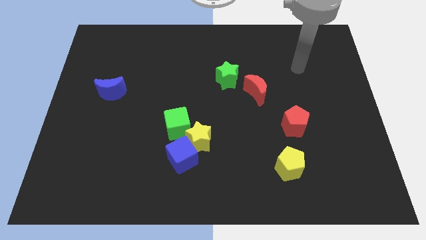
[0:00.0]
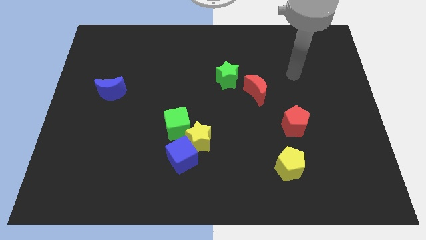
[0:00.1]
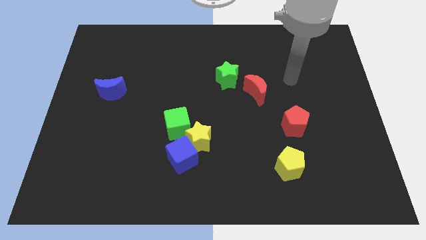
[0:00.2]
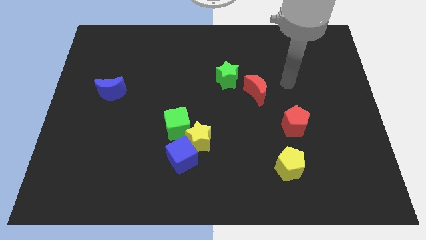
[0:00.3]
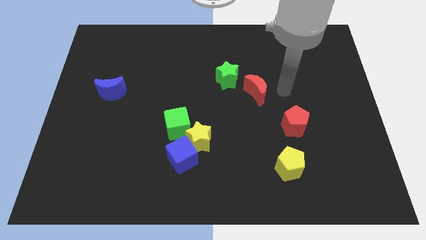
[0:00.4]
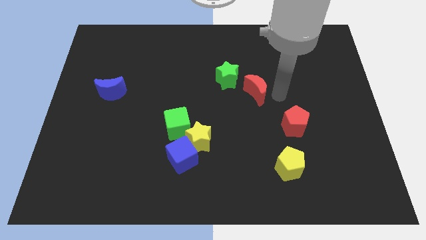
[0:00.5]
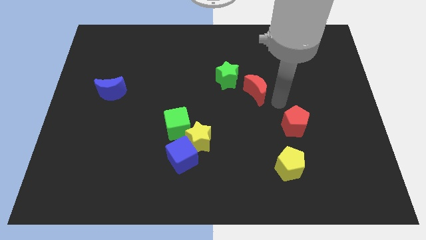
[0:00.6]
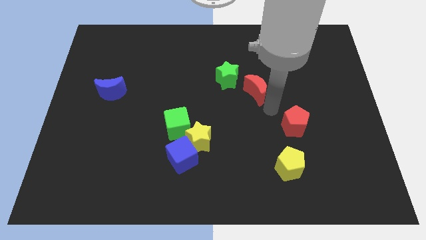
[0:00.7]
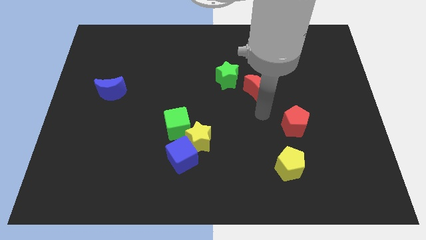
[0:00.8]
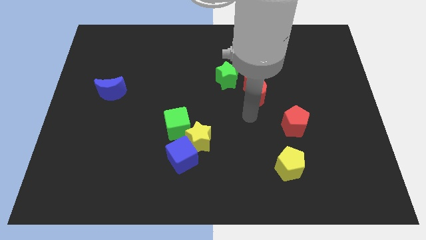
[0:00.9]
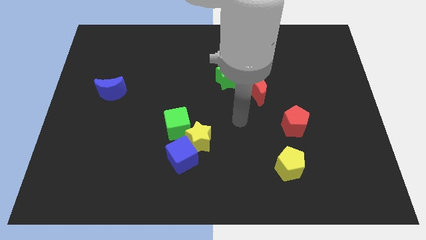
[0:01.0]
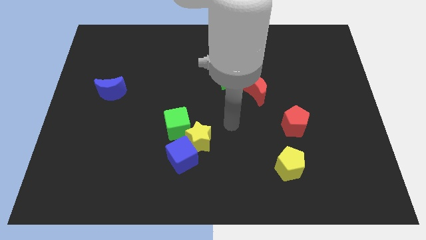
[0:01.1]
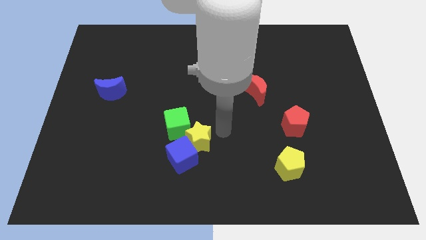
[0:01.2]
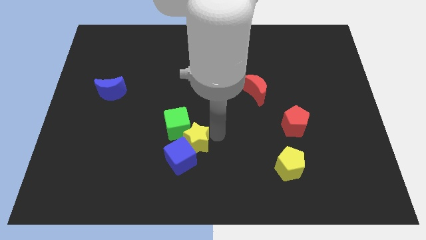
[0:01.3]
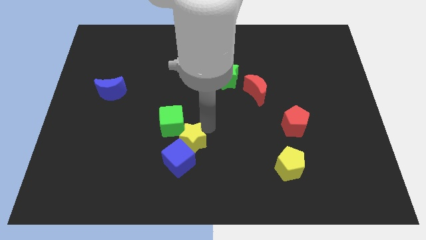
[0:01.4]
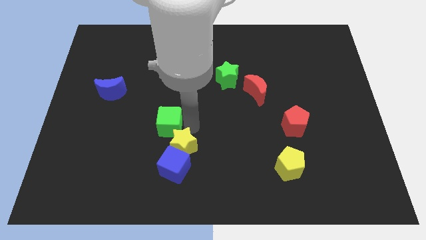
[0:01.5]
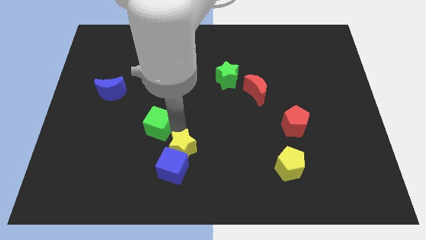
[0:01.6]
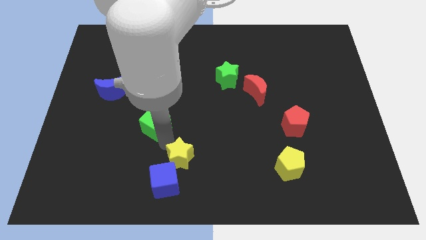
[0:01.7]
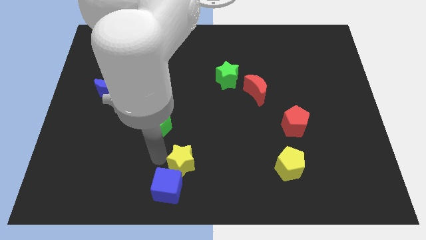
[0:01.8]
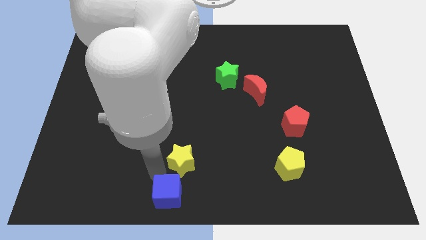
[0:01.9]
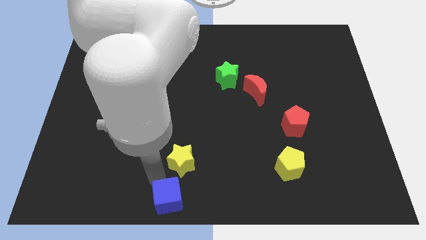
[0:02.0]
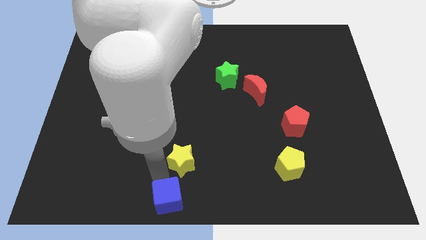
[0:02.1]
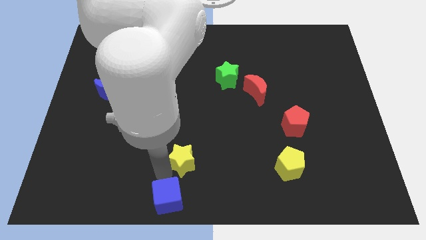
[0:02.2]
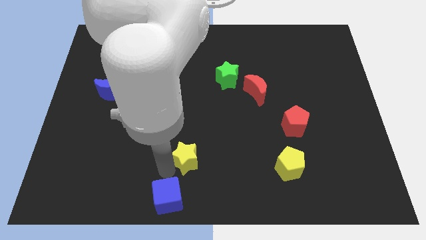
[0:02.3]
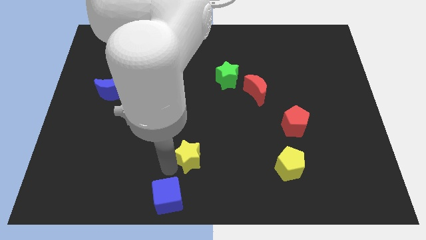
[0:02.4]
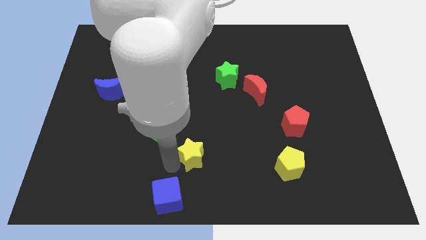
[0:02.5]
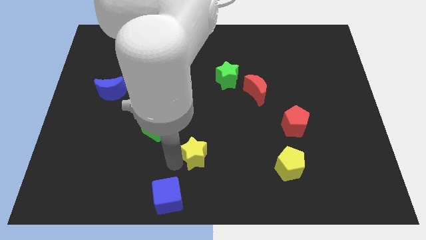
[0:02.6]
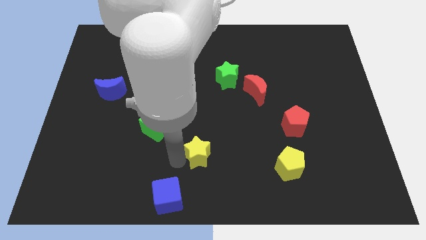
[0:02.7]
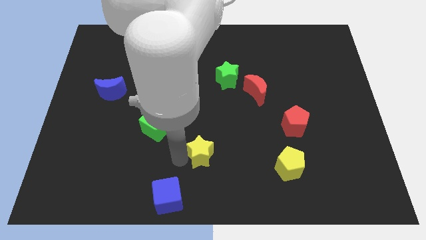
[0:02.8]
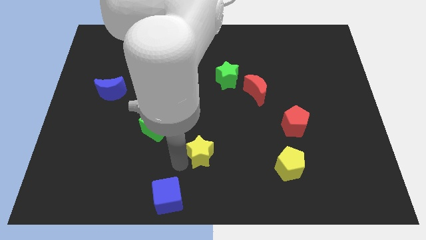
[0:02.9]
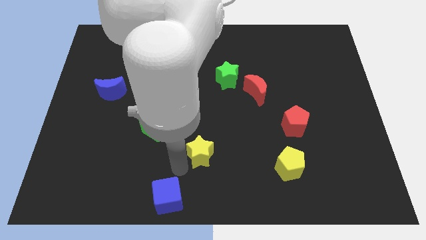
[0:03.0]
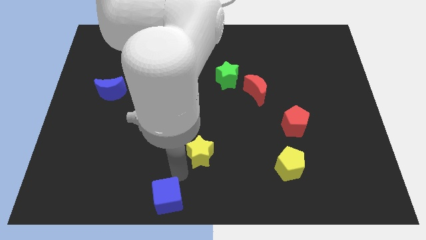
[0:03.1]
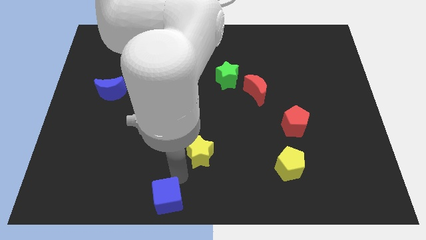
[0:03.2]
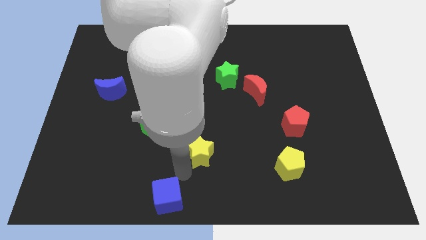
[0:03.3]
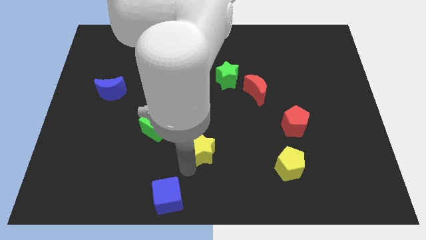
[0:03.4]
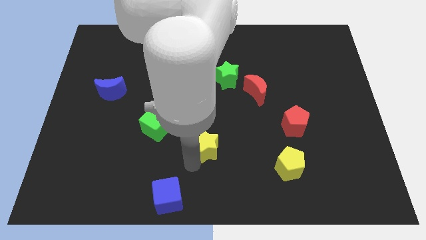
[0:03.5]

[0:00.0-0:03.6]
pull the yellow star apart from the blue cube and green cube

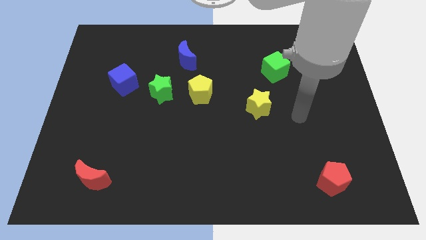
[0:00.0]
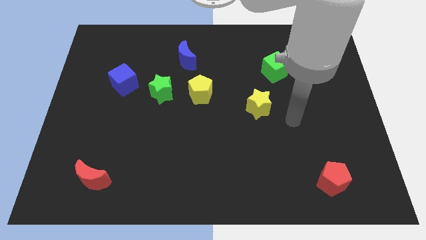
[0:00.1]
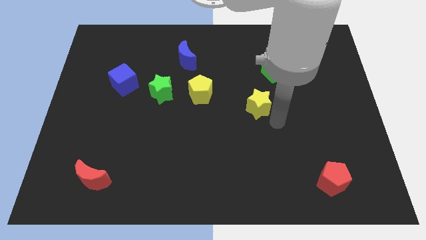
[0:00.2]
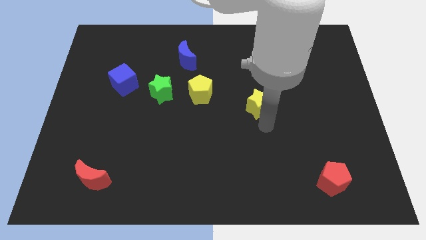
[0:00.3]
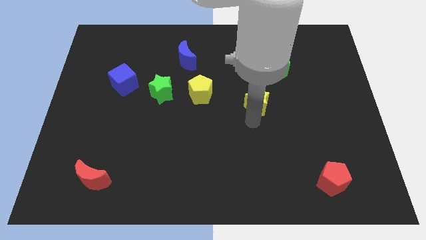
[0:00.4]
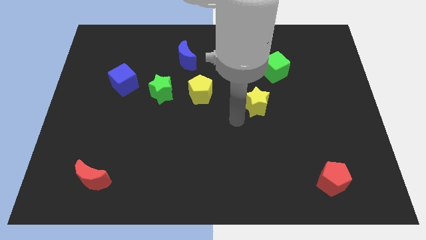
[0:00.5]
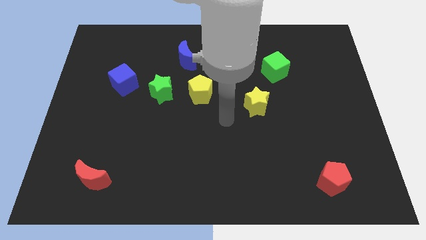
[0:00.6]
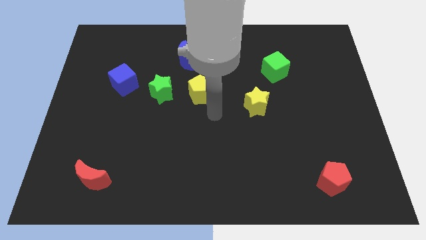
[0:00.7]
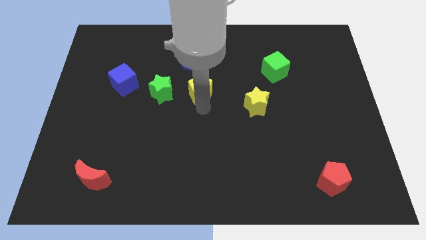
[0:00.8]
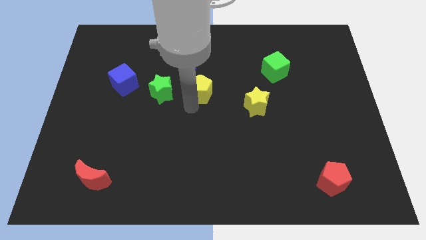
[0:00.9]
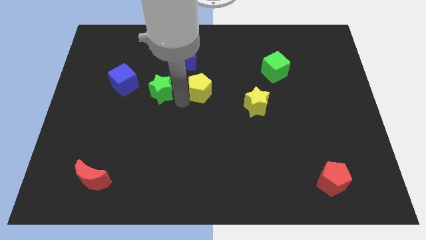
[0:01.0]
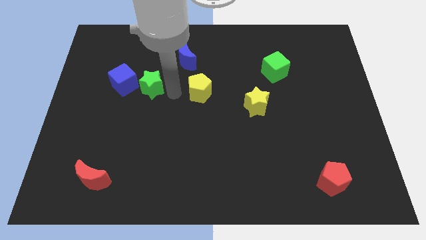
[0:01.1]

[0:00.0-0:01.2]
separate the yellow pentagon from the green star

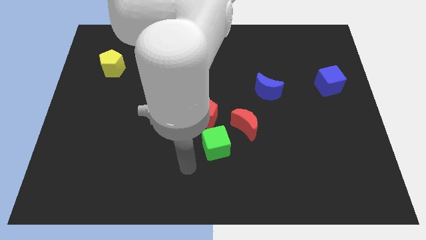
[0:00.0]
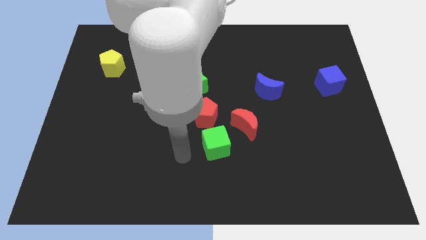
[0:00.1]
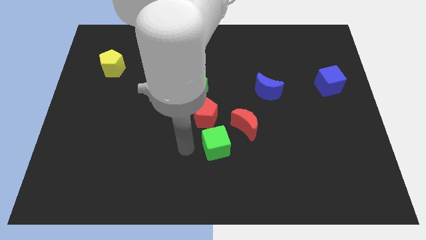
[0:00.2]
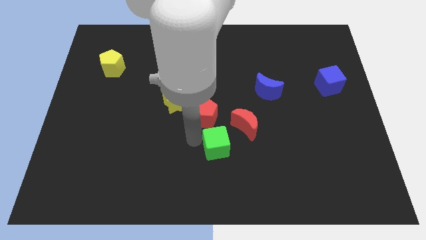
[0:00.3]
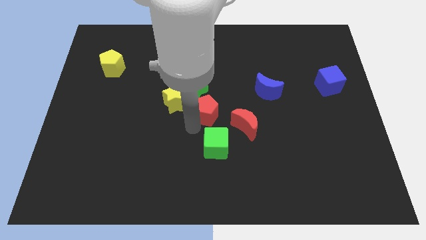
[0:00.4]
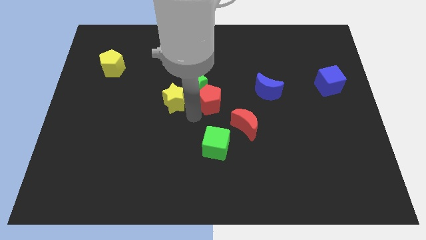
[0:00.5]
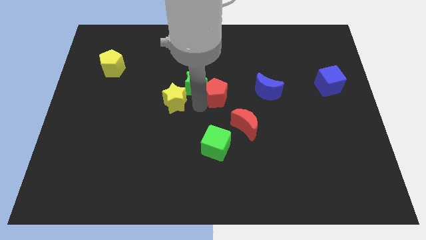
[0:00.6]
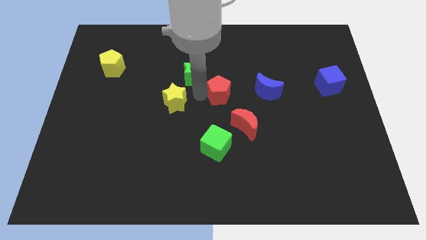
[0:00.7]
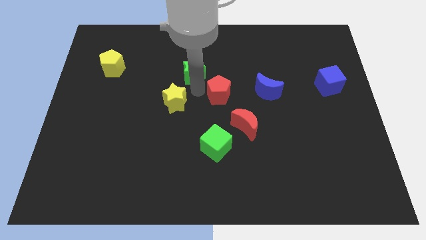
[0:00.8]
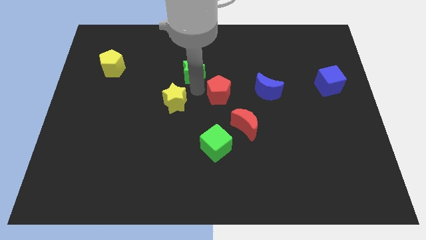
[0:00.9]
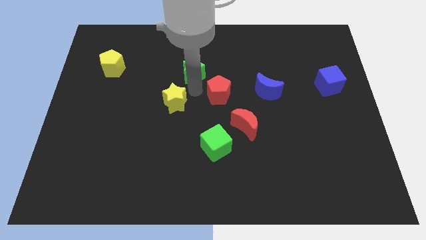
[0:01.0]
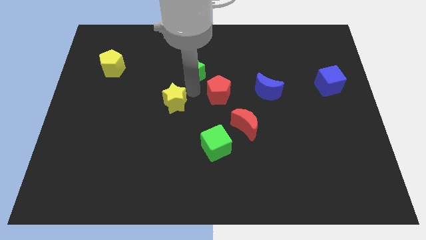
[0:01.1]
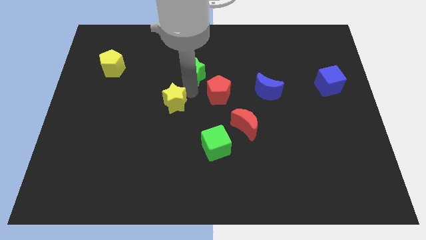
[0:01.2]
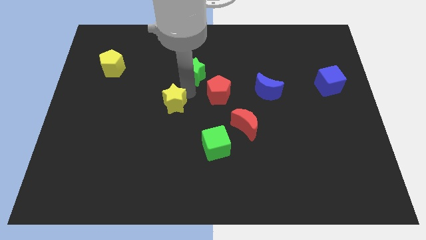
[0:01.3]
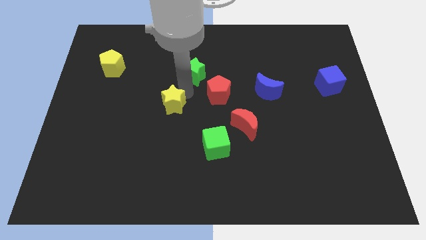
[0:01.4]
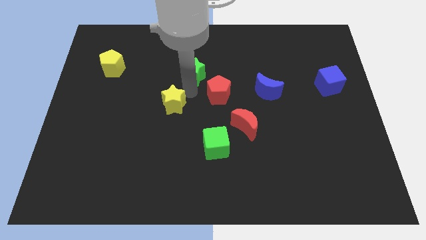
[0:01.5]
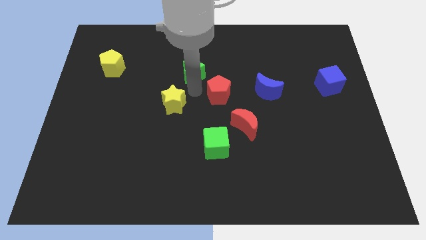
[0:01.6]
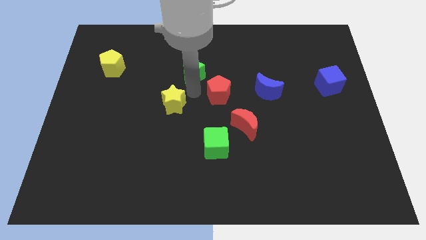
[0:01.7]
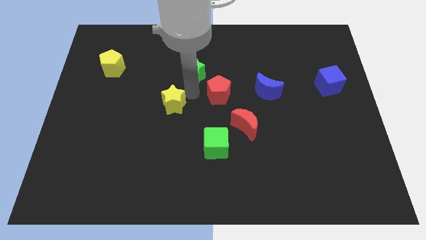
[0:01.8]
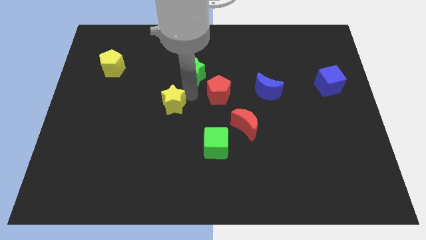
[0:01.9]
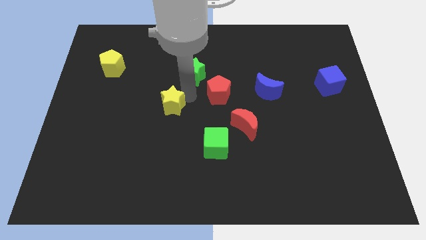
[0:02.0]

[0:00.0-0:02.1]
move the yellow star away from the green star and red pentagon

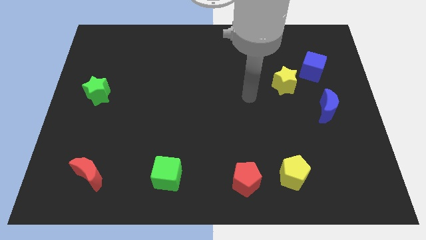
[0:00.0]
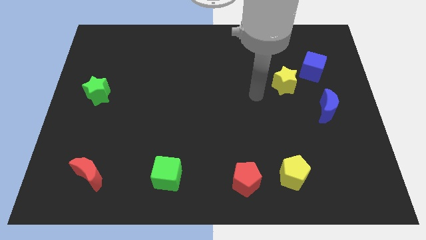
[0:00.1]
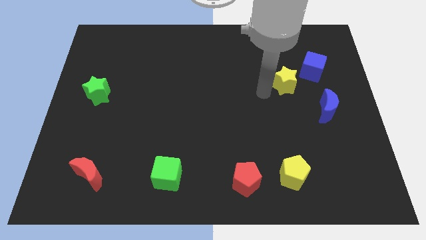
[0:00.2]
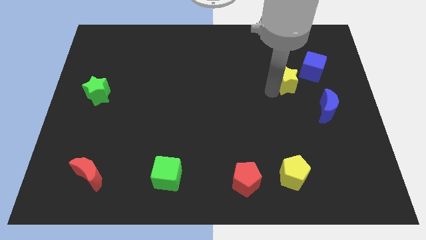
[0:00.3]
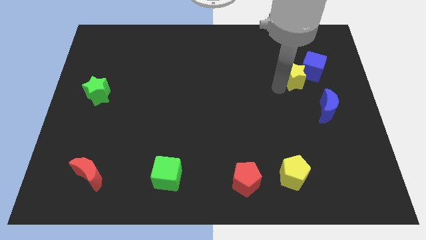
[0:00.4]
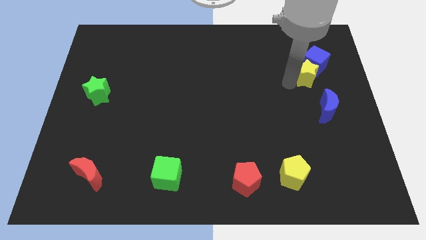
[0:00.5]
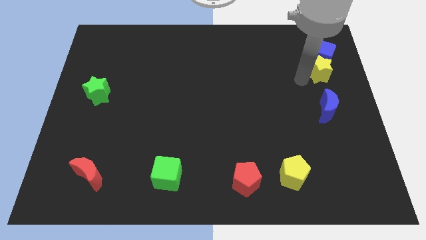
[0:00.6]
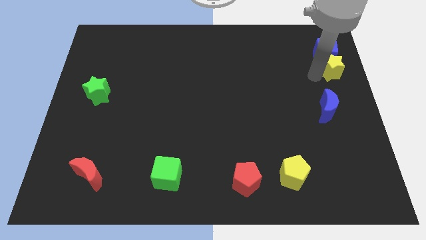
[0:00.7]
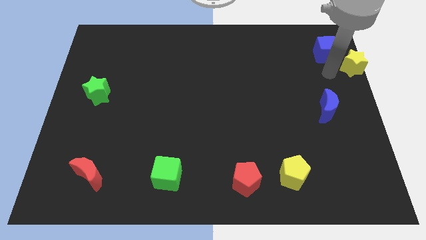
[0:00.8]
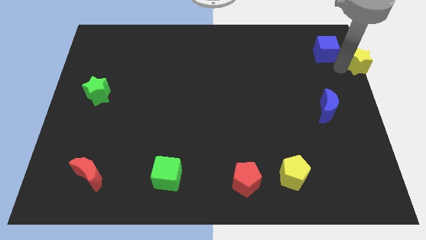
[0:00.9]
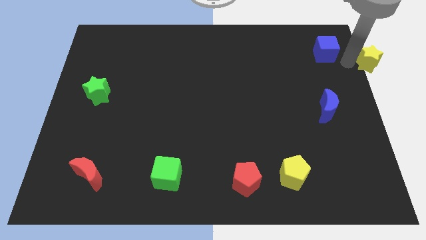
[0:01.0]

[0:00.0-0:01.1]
separate the blue cube from the yellow star

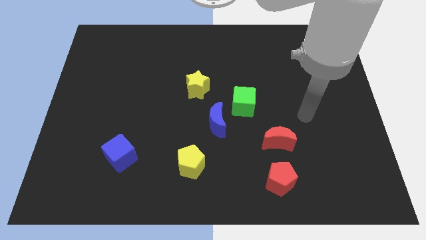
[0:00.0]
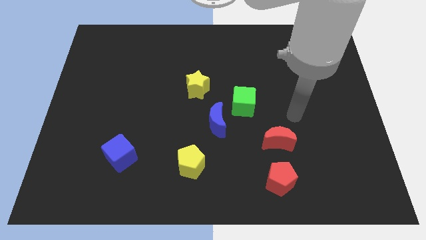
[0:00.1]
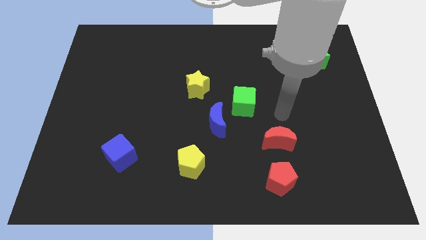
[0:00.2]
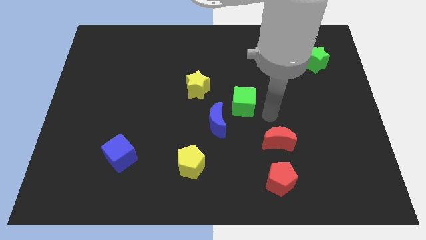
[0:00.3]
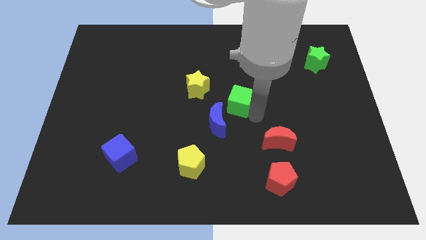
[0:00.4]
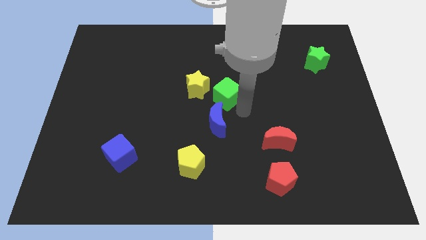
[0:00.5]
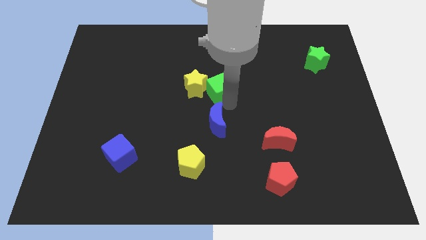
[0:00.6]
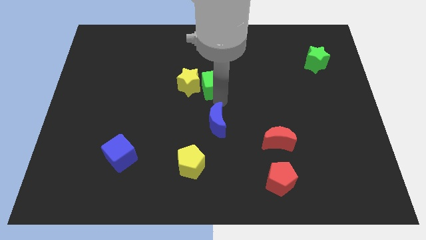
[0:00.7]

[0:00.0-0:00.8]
pull the blue moon apart from the green cube

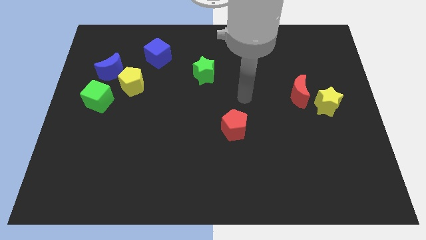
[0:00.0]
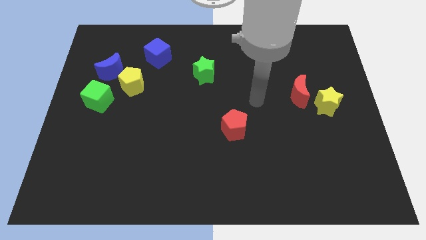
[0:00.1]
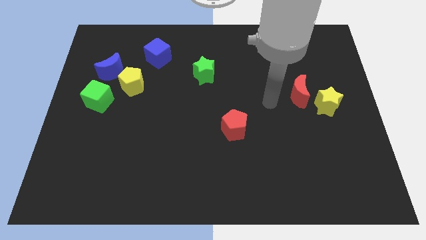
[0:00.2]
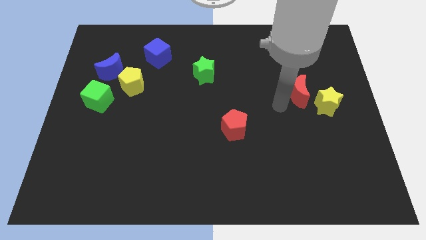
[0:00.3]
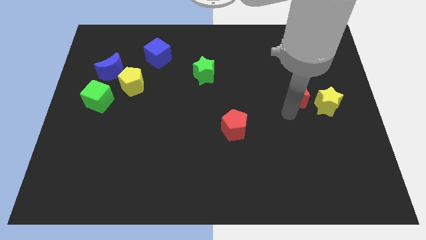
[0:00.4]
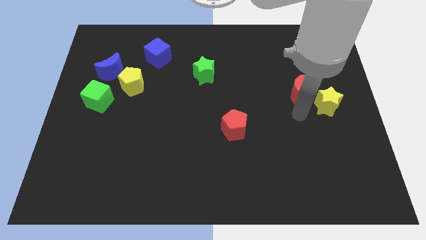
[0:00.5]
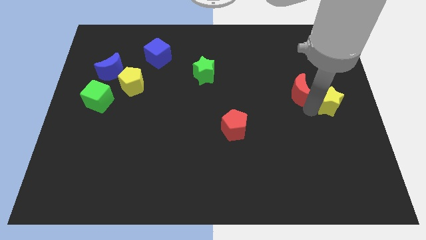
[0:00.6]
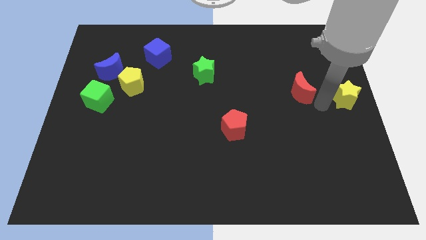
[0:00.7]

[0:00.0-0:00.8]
pull the red moon apart from the yellow star
